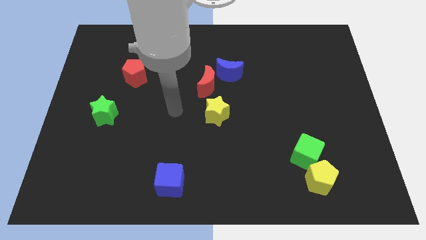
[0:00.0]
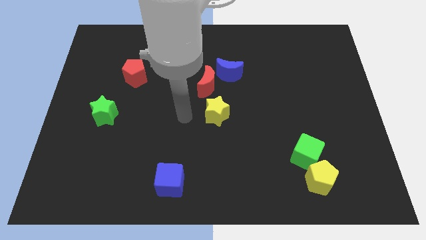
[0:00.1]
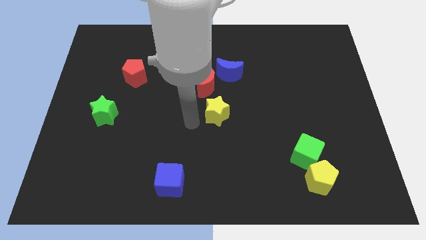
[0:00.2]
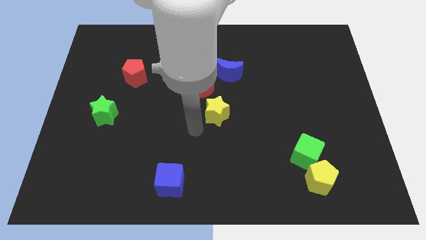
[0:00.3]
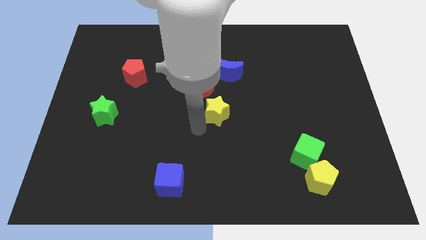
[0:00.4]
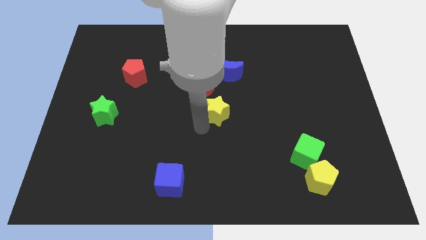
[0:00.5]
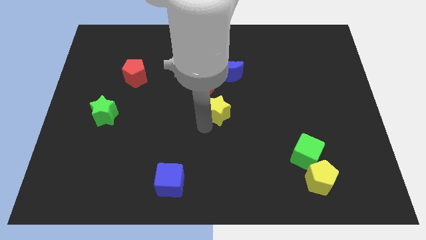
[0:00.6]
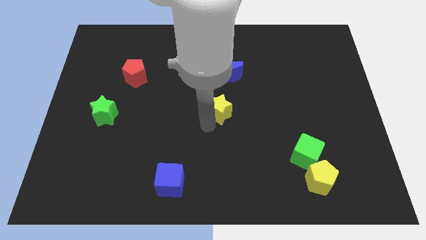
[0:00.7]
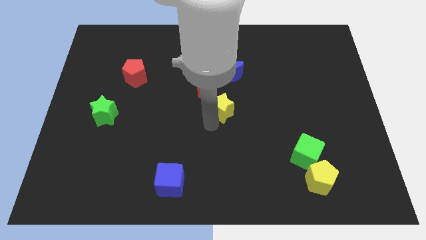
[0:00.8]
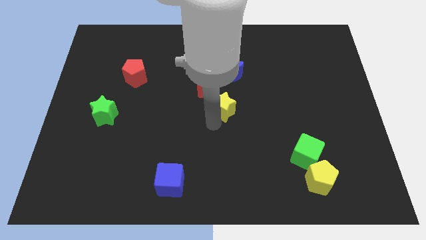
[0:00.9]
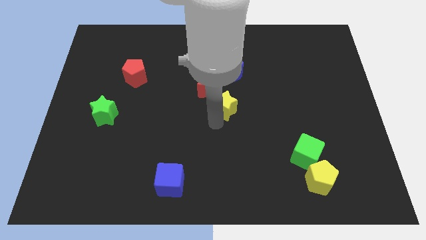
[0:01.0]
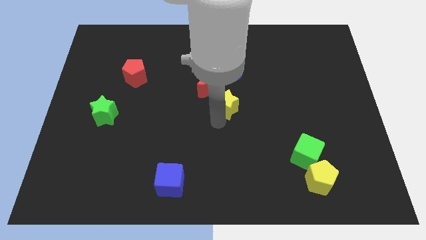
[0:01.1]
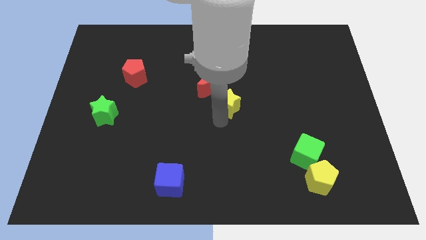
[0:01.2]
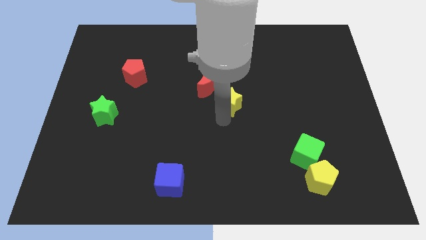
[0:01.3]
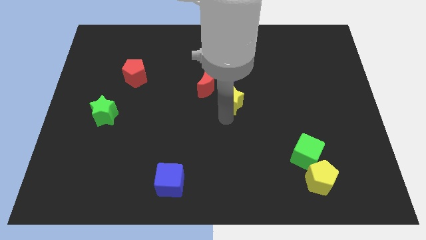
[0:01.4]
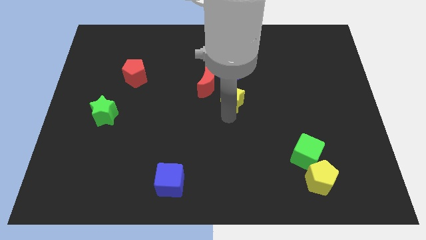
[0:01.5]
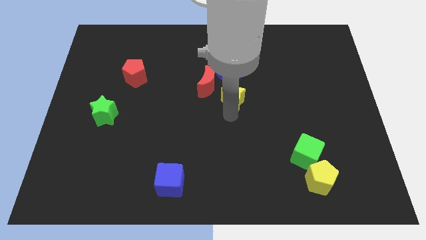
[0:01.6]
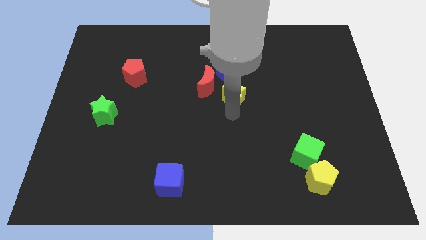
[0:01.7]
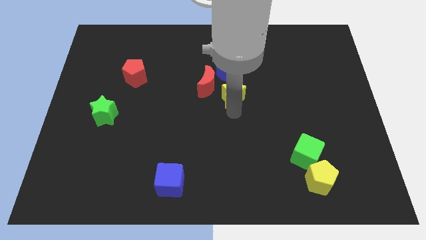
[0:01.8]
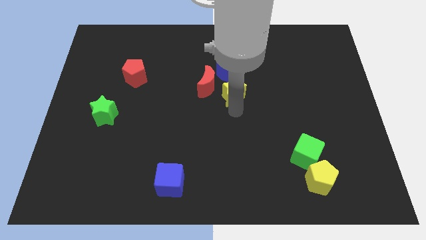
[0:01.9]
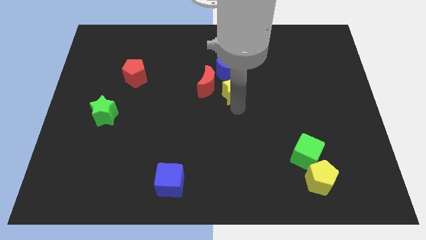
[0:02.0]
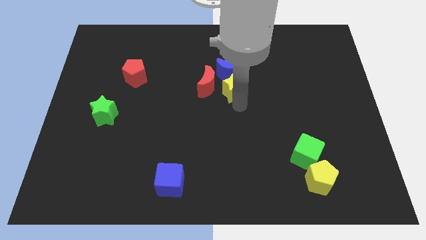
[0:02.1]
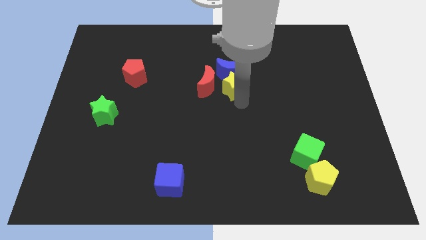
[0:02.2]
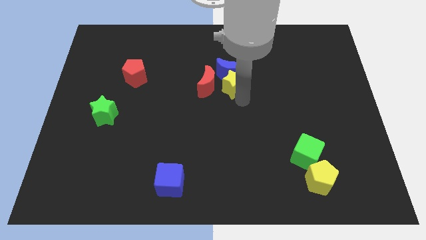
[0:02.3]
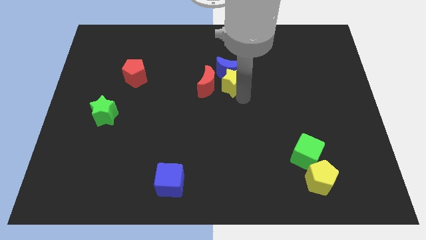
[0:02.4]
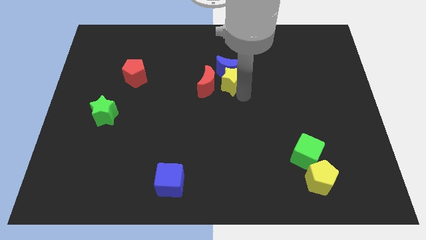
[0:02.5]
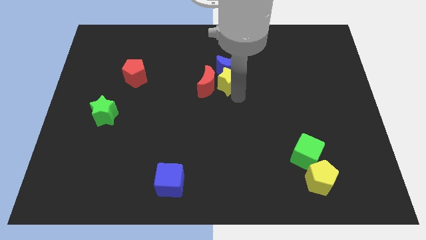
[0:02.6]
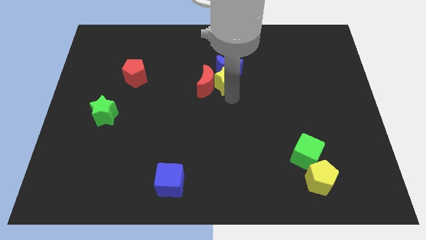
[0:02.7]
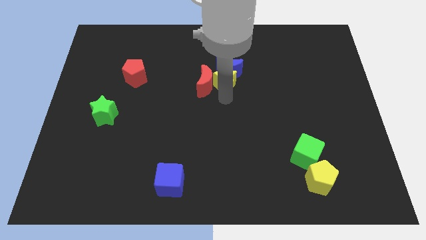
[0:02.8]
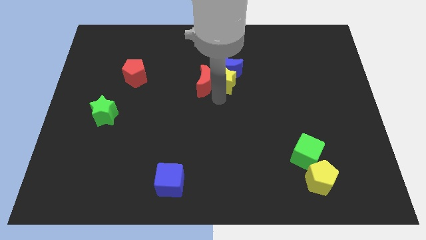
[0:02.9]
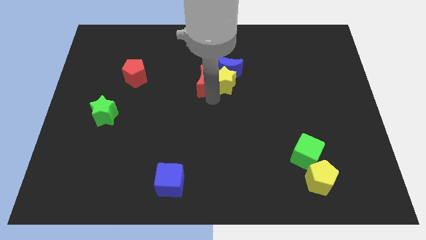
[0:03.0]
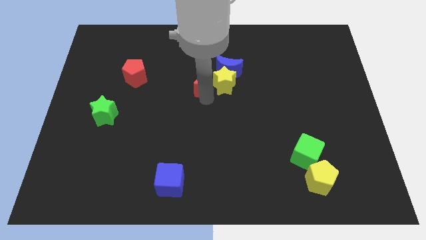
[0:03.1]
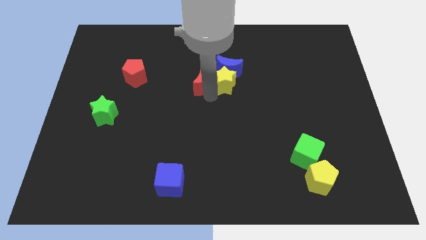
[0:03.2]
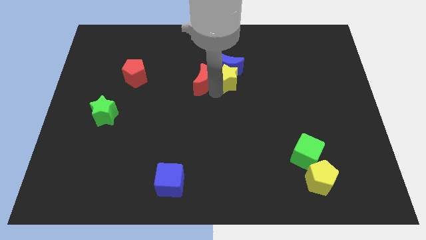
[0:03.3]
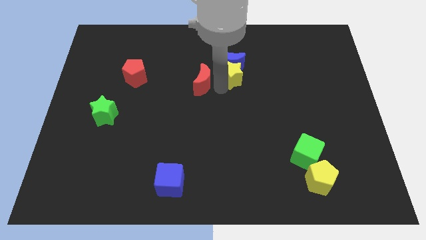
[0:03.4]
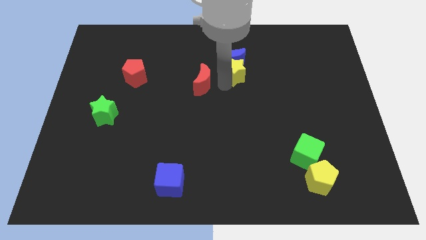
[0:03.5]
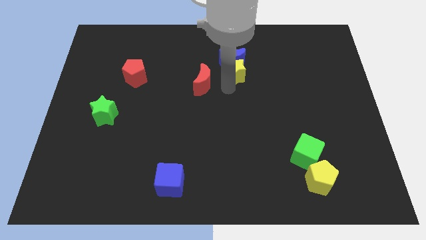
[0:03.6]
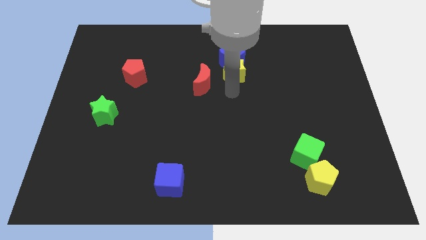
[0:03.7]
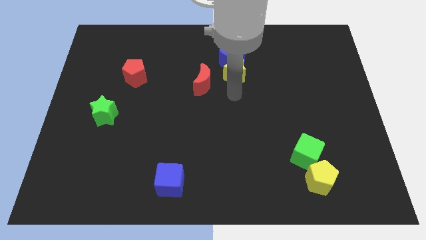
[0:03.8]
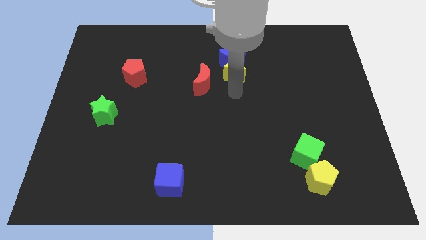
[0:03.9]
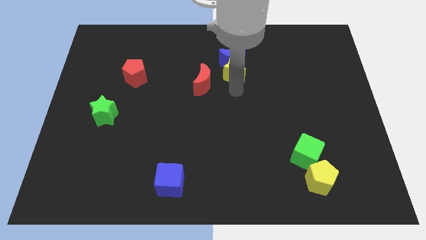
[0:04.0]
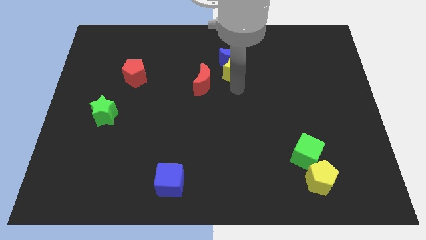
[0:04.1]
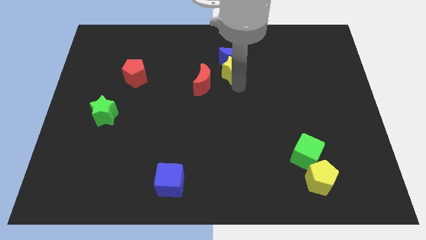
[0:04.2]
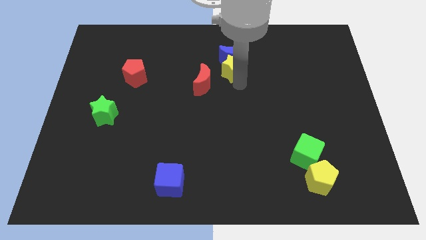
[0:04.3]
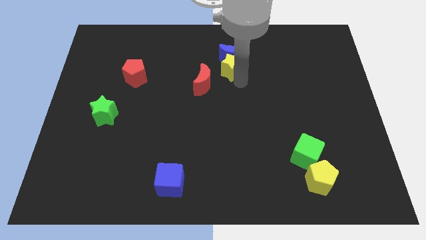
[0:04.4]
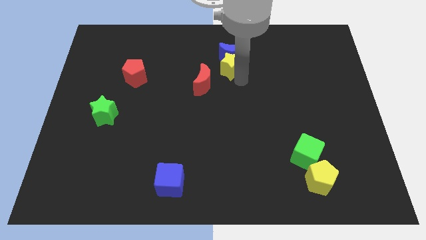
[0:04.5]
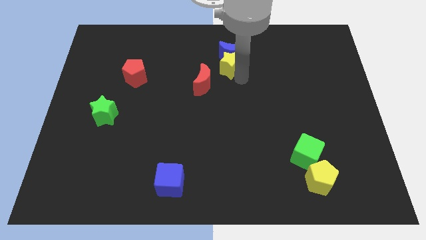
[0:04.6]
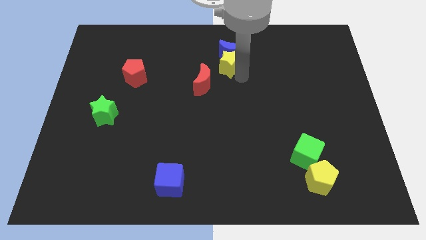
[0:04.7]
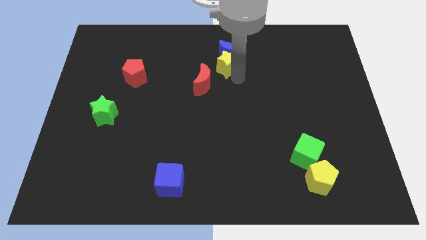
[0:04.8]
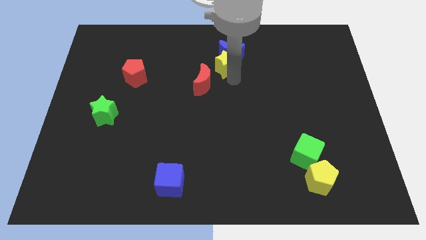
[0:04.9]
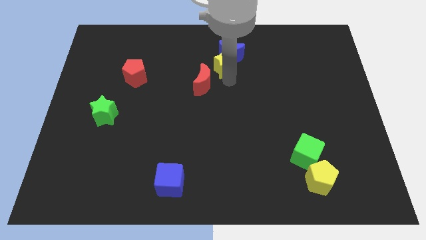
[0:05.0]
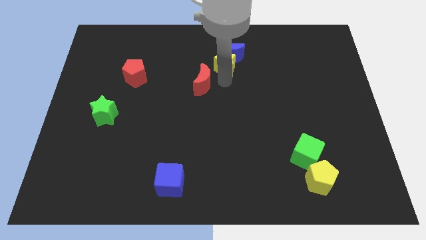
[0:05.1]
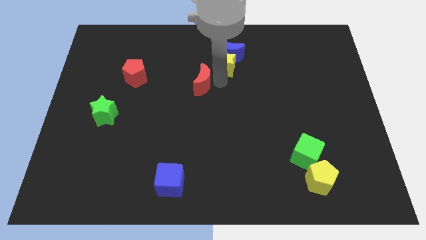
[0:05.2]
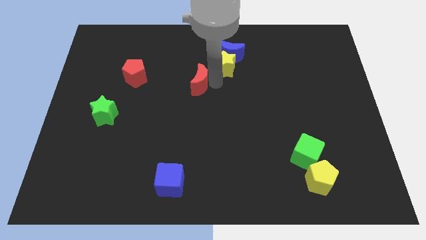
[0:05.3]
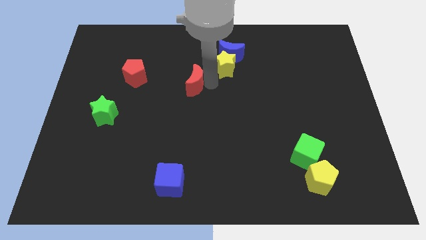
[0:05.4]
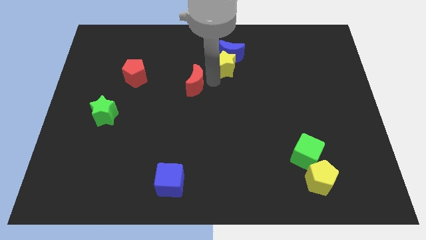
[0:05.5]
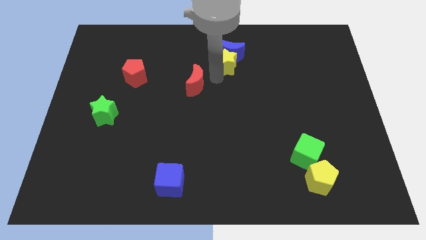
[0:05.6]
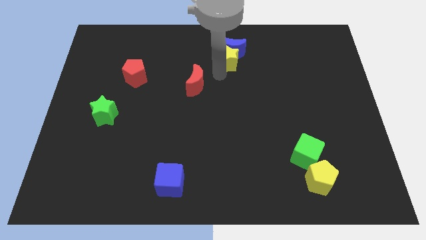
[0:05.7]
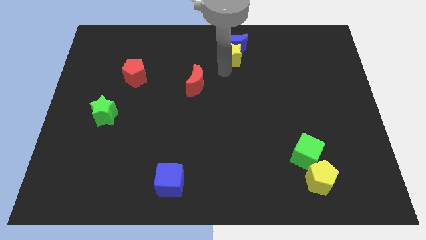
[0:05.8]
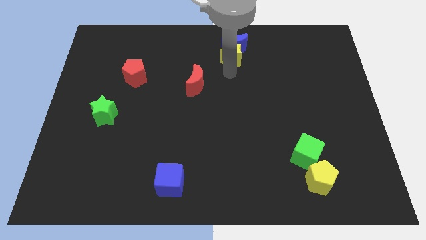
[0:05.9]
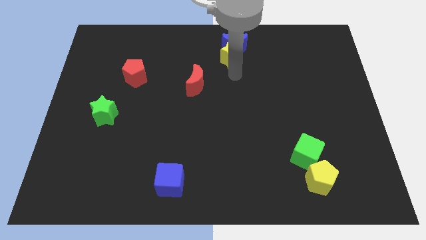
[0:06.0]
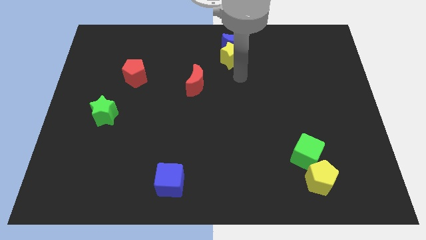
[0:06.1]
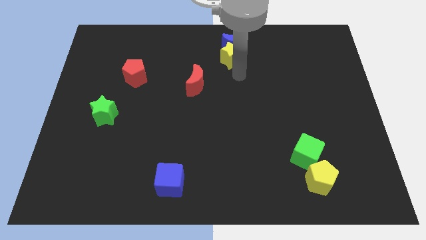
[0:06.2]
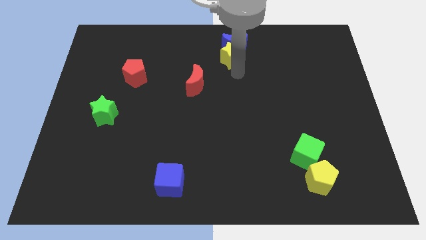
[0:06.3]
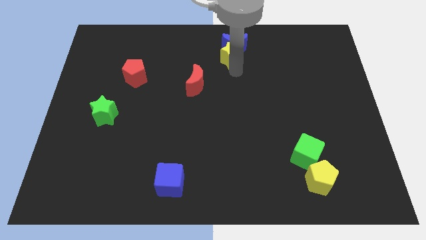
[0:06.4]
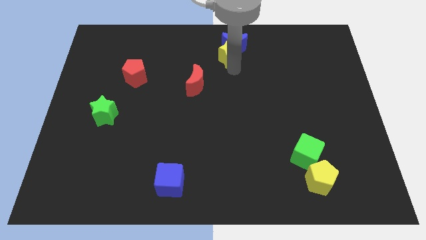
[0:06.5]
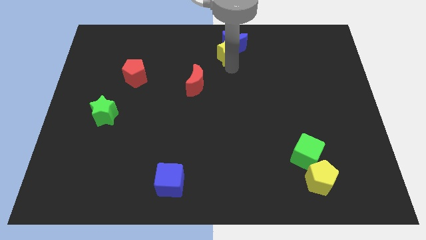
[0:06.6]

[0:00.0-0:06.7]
move the yellow star to the towards your base
